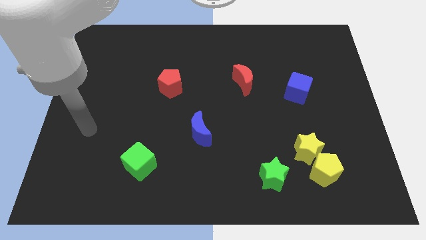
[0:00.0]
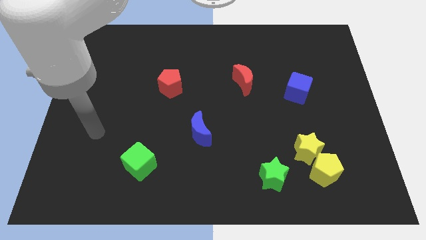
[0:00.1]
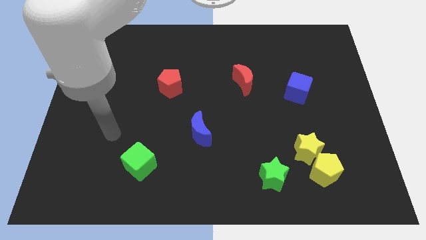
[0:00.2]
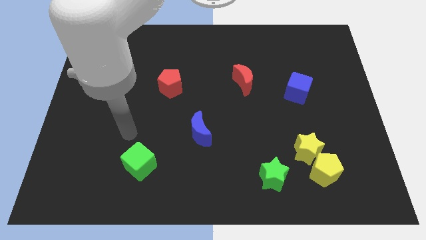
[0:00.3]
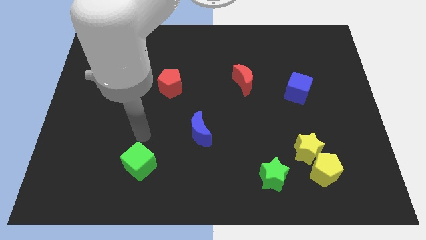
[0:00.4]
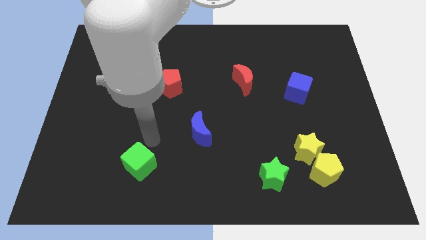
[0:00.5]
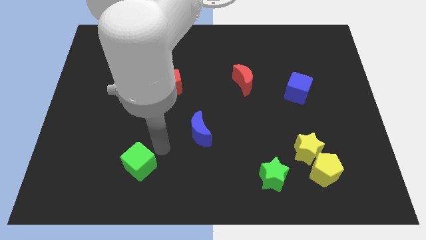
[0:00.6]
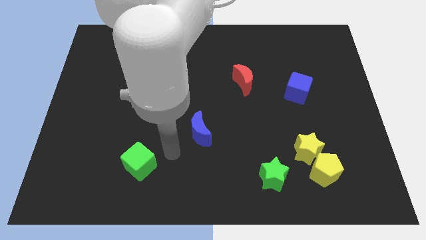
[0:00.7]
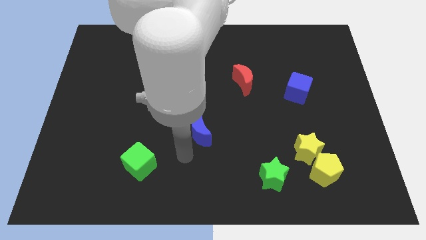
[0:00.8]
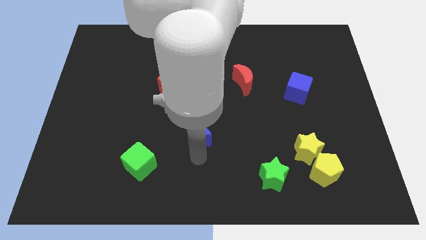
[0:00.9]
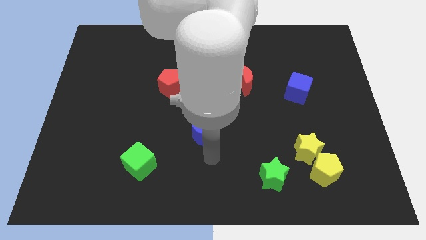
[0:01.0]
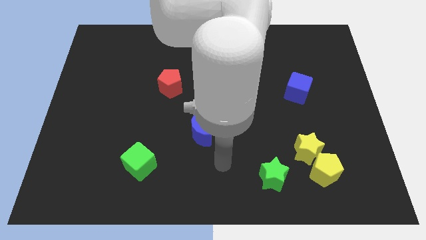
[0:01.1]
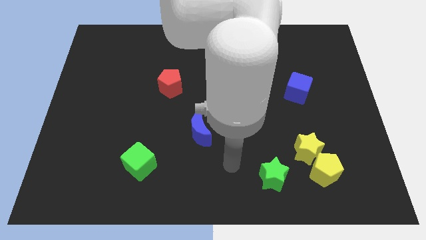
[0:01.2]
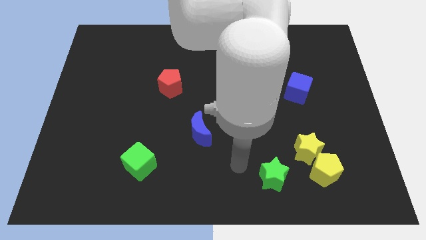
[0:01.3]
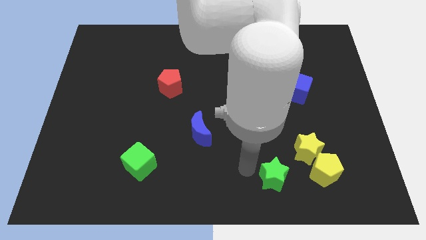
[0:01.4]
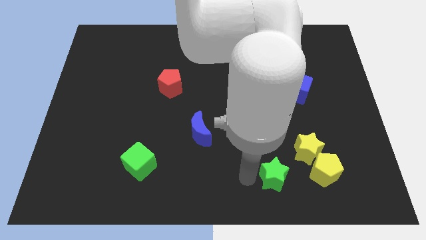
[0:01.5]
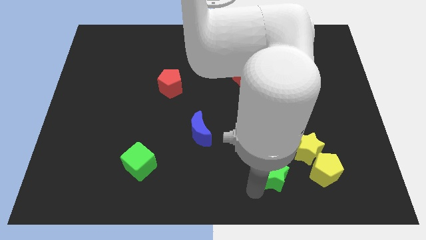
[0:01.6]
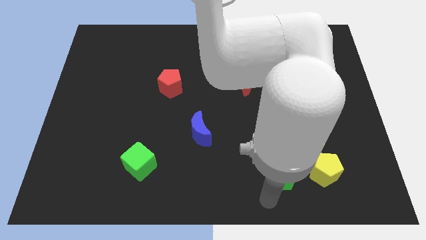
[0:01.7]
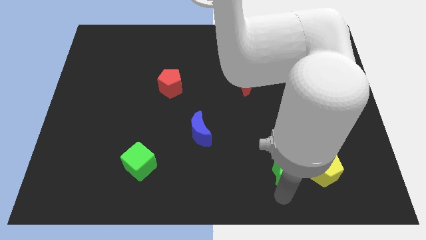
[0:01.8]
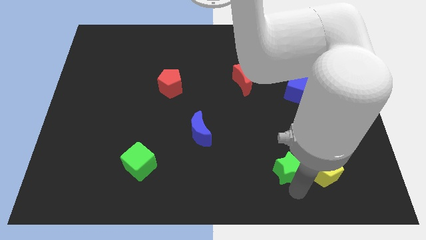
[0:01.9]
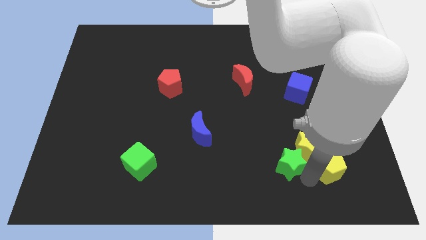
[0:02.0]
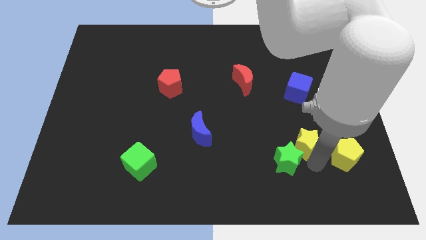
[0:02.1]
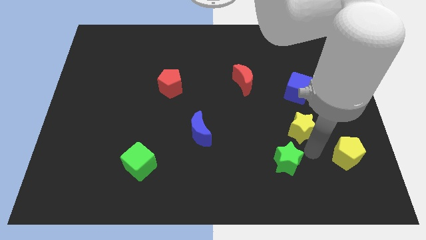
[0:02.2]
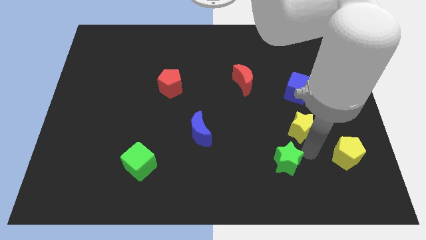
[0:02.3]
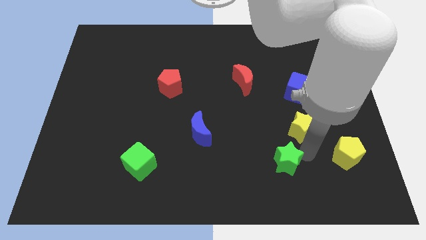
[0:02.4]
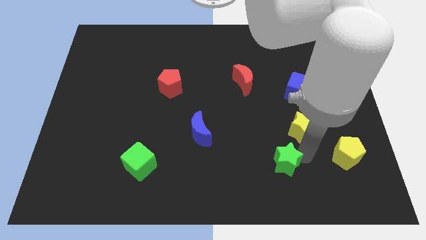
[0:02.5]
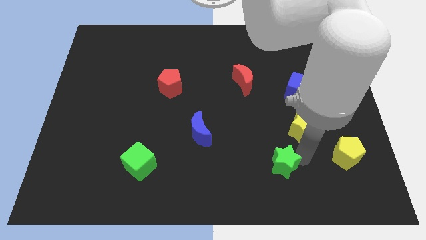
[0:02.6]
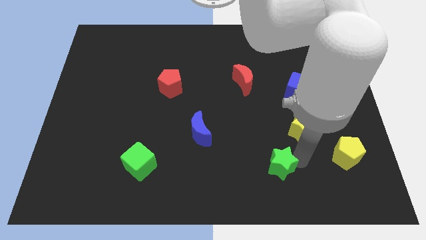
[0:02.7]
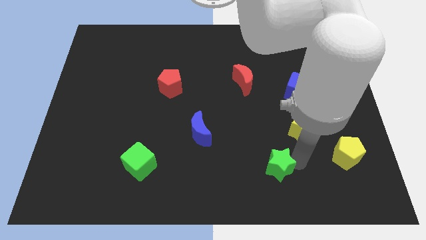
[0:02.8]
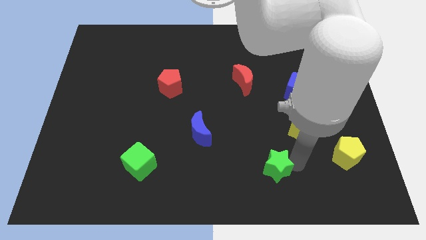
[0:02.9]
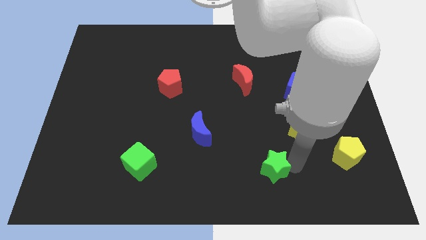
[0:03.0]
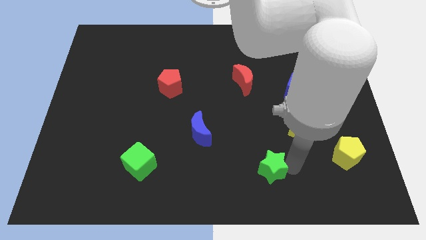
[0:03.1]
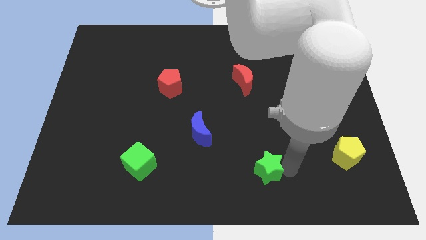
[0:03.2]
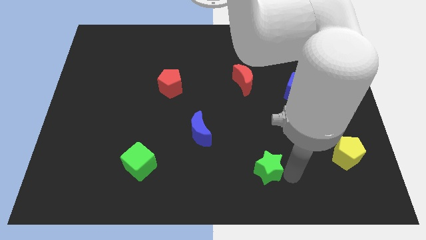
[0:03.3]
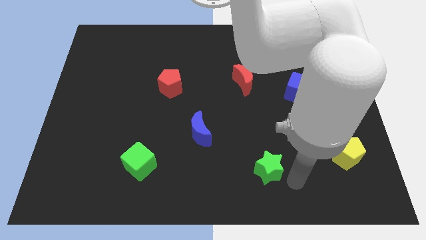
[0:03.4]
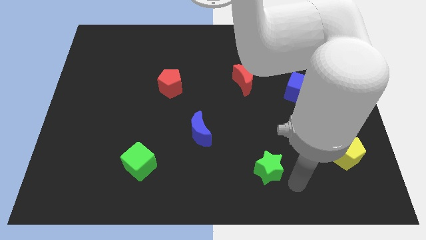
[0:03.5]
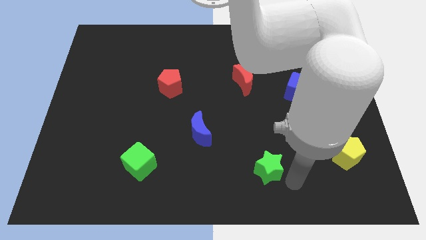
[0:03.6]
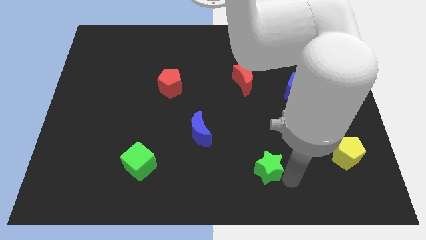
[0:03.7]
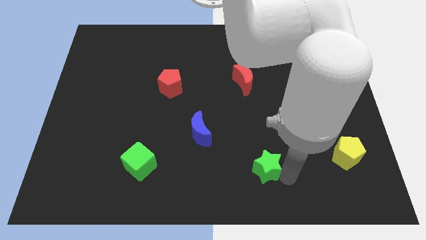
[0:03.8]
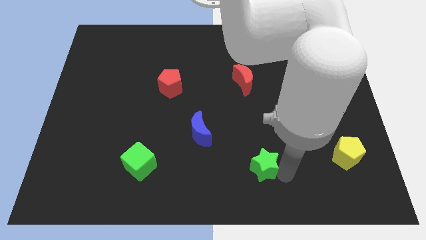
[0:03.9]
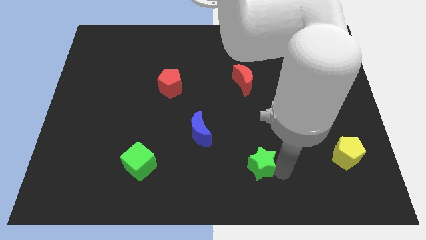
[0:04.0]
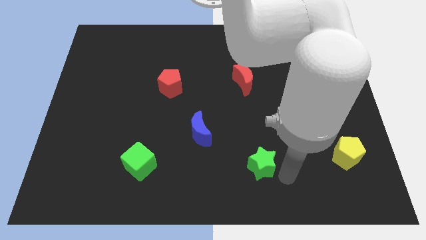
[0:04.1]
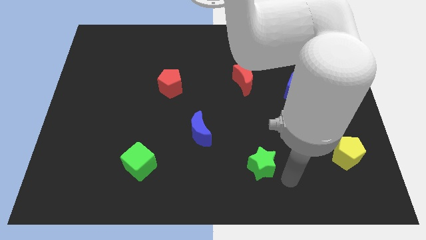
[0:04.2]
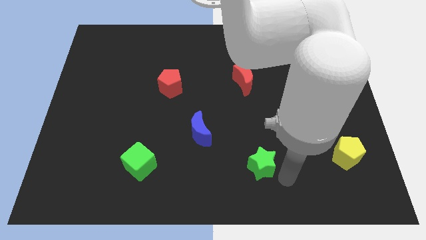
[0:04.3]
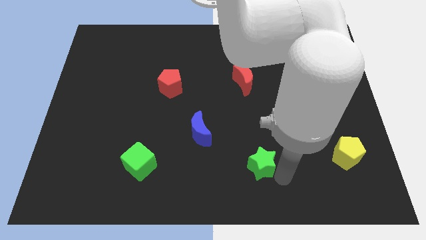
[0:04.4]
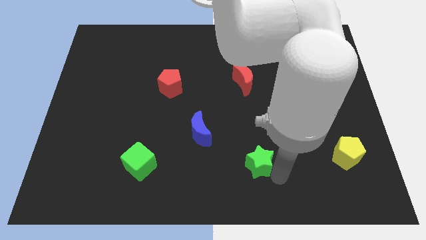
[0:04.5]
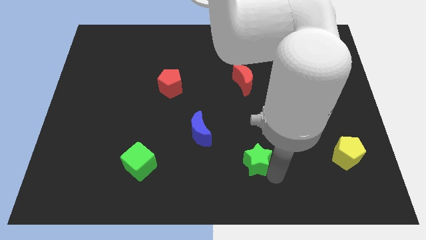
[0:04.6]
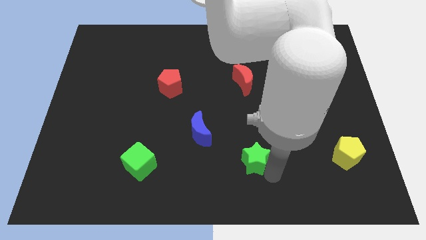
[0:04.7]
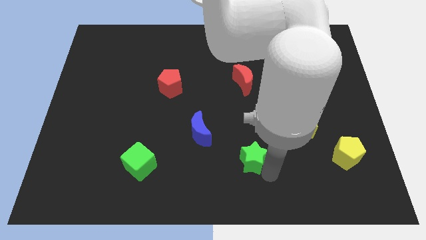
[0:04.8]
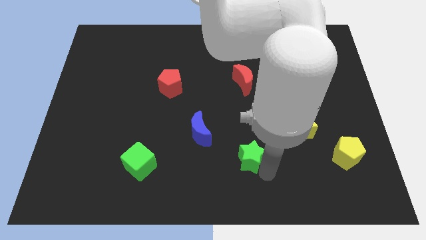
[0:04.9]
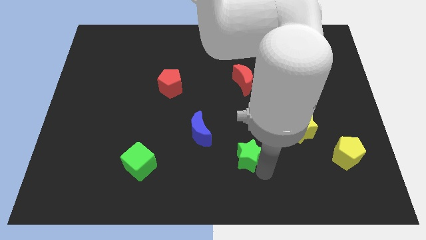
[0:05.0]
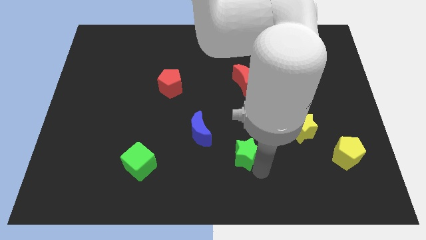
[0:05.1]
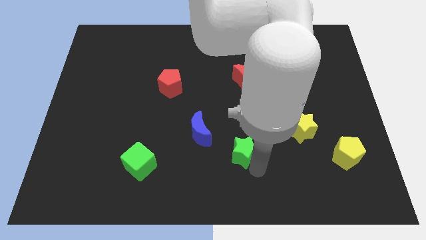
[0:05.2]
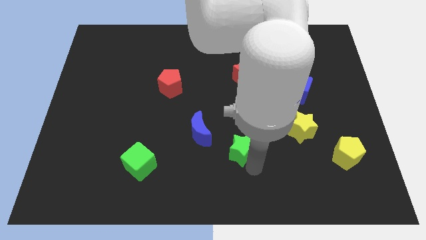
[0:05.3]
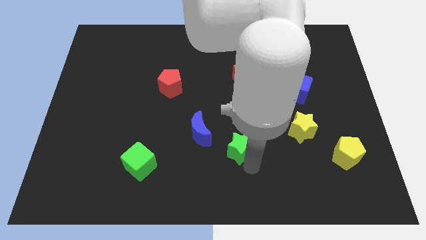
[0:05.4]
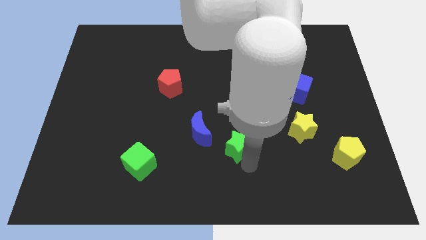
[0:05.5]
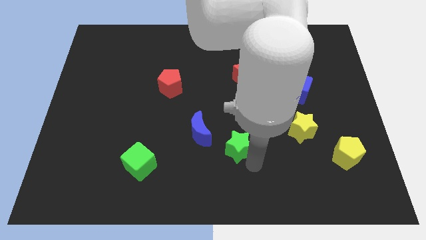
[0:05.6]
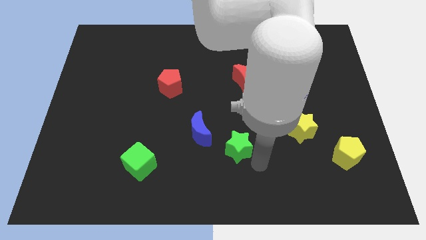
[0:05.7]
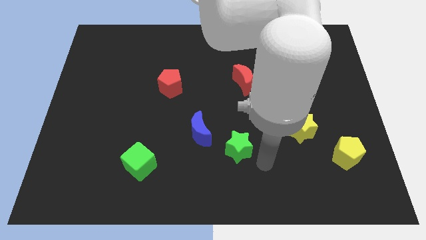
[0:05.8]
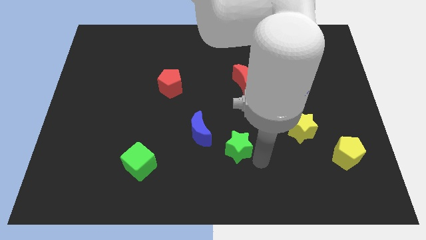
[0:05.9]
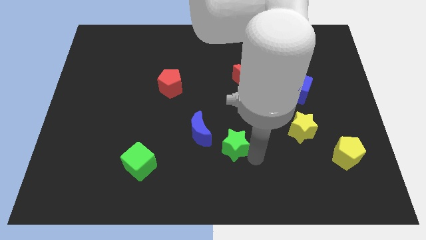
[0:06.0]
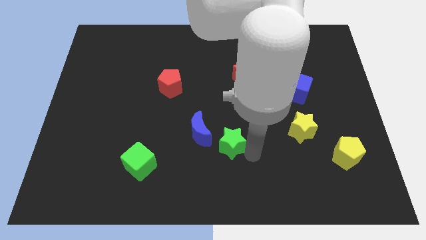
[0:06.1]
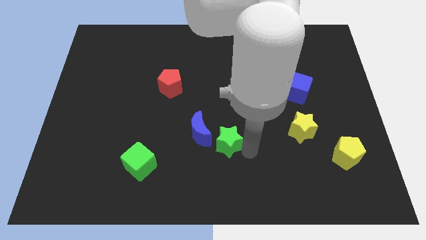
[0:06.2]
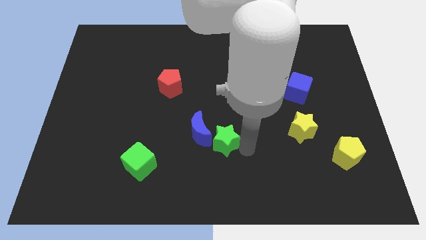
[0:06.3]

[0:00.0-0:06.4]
move the green star next to the blue moon
